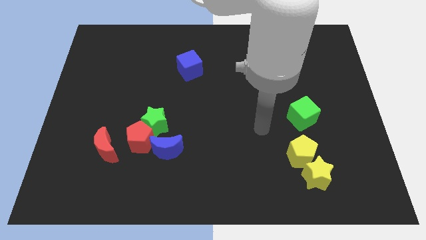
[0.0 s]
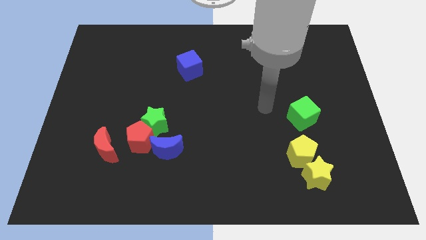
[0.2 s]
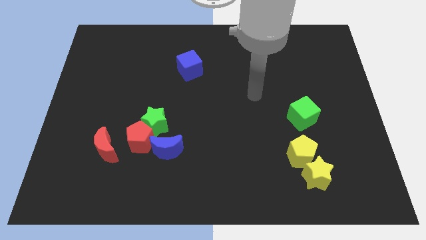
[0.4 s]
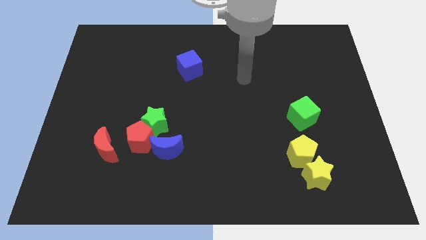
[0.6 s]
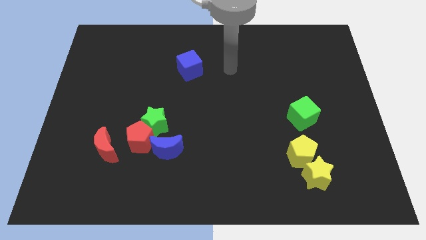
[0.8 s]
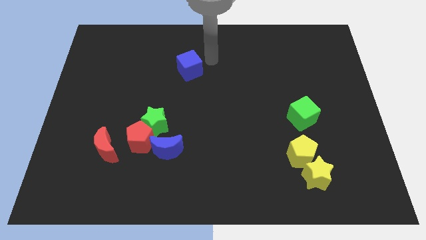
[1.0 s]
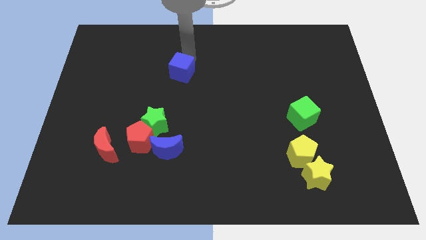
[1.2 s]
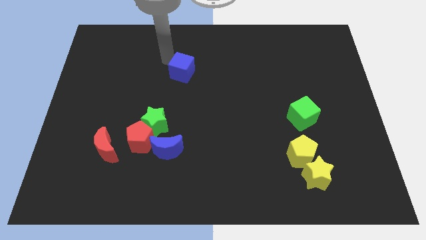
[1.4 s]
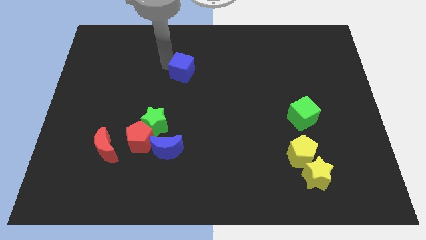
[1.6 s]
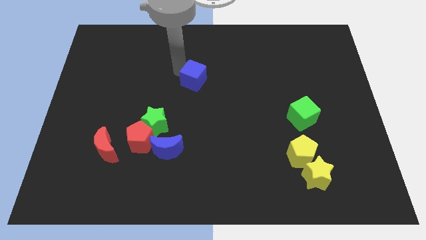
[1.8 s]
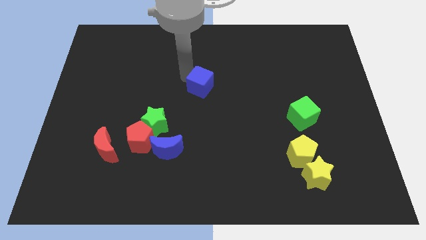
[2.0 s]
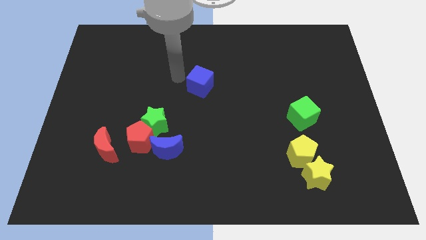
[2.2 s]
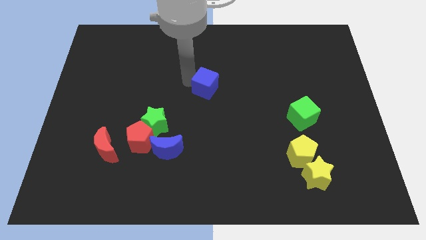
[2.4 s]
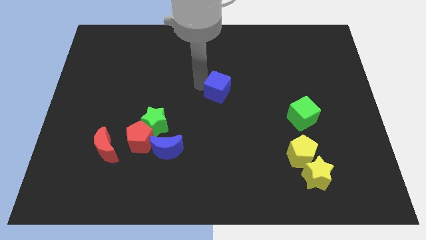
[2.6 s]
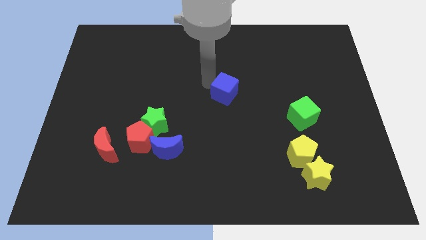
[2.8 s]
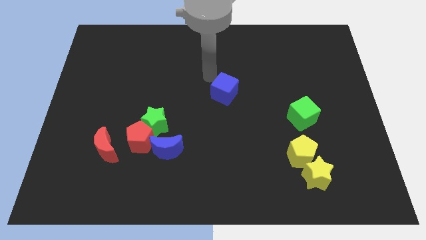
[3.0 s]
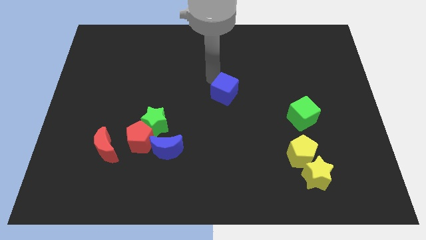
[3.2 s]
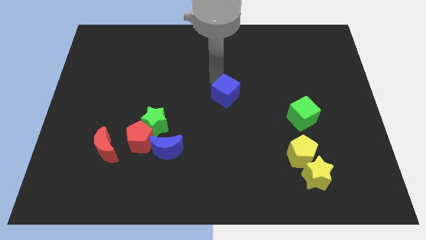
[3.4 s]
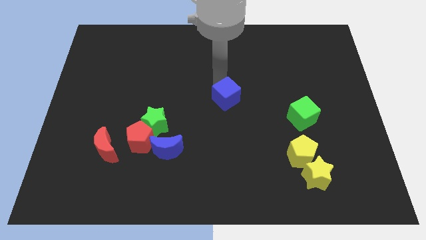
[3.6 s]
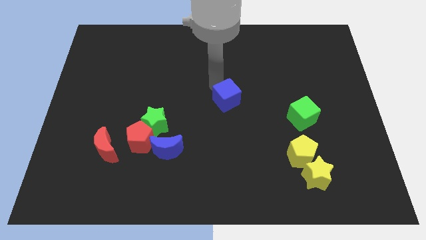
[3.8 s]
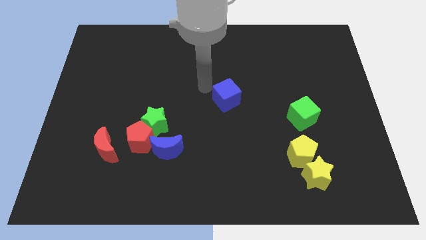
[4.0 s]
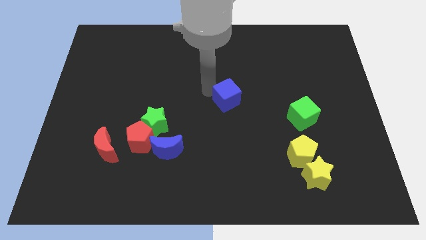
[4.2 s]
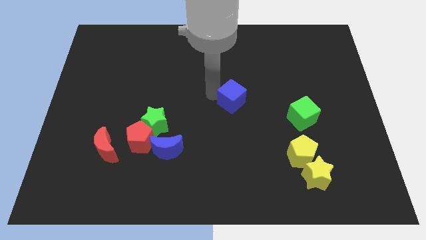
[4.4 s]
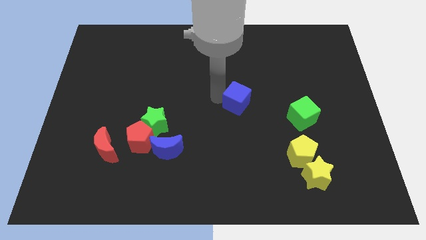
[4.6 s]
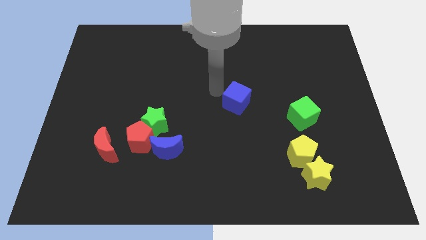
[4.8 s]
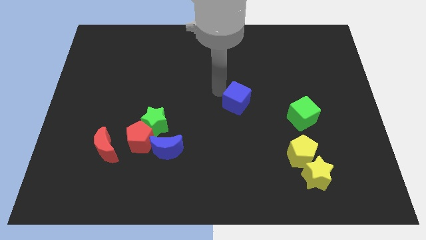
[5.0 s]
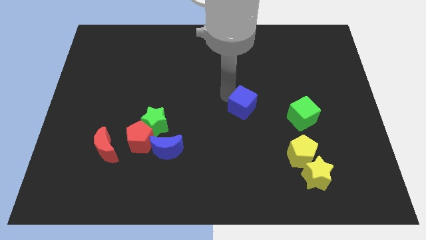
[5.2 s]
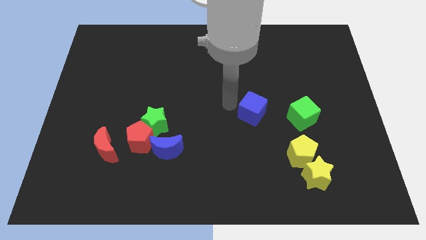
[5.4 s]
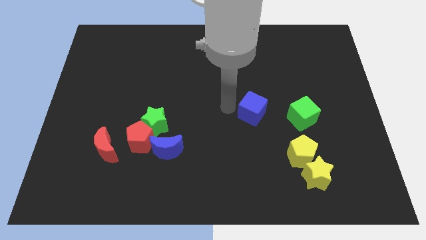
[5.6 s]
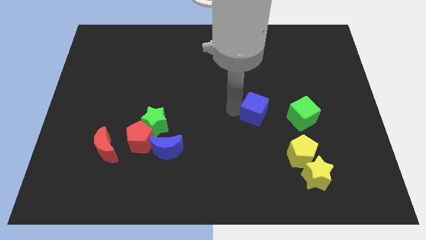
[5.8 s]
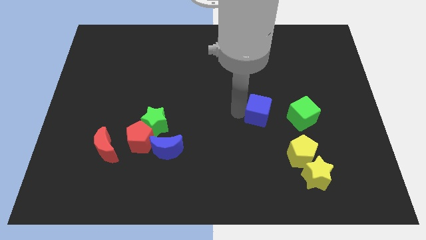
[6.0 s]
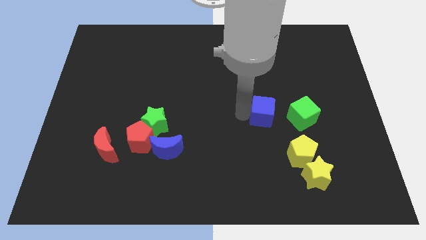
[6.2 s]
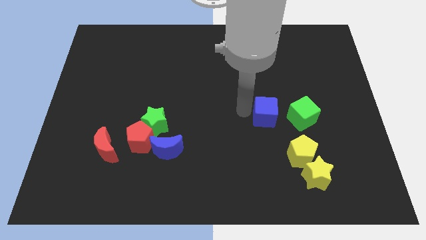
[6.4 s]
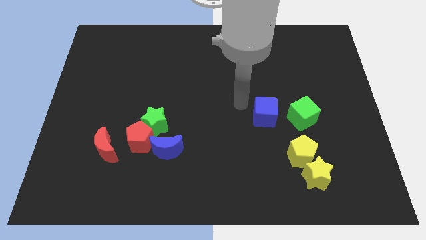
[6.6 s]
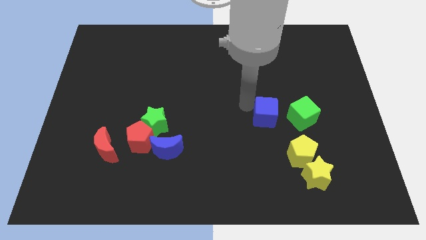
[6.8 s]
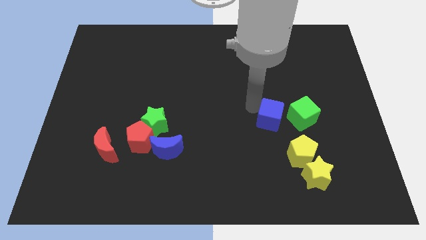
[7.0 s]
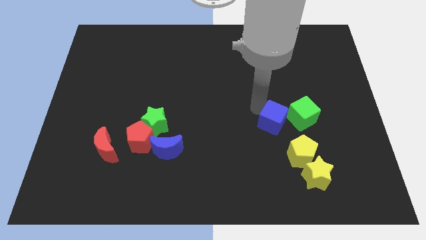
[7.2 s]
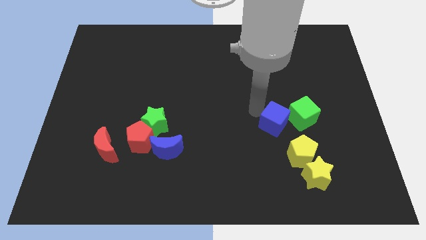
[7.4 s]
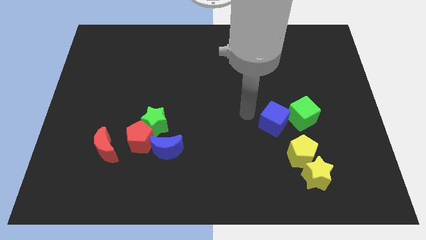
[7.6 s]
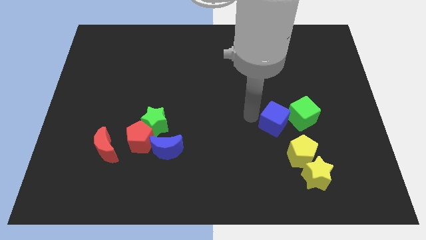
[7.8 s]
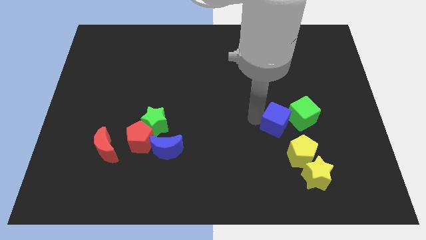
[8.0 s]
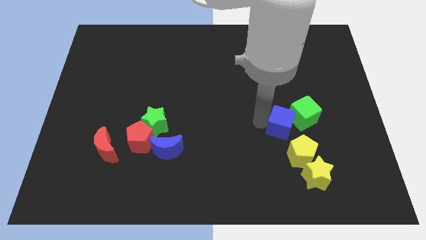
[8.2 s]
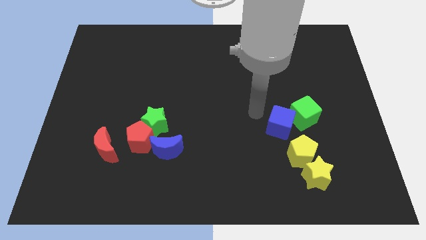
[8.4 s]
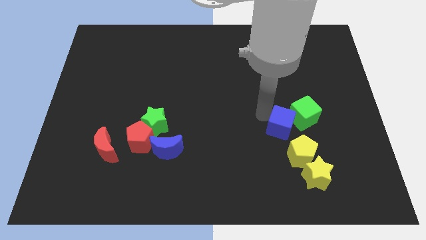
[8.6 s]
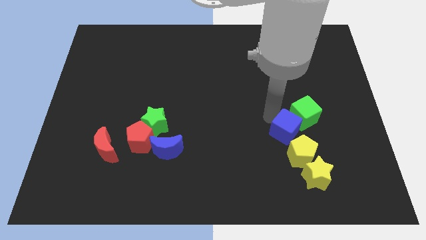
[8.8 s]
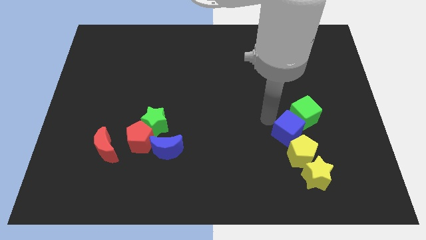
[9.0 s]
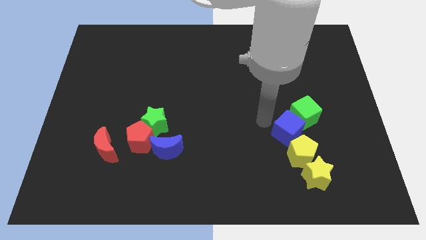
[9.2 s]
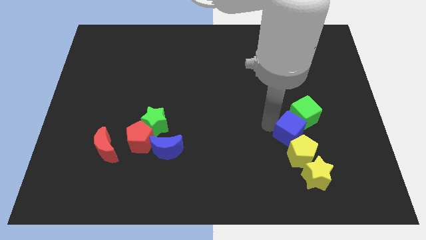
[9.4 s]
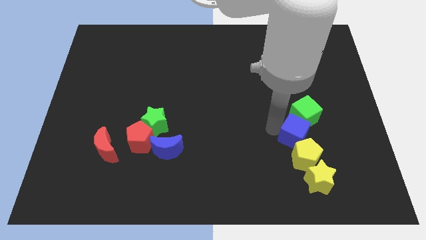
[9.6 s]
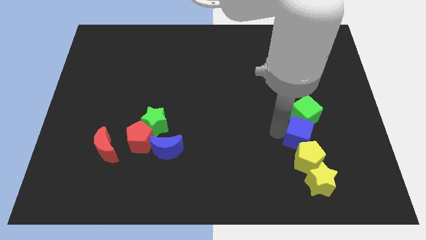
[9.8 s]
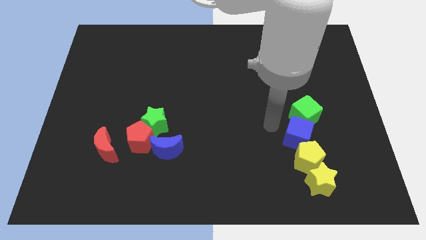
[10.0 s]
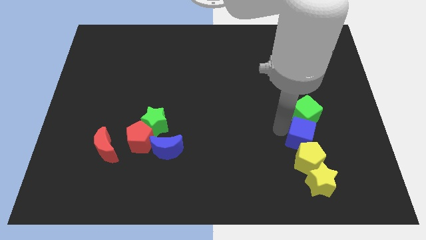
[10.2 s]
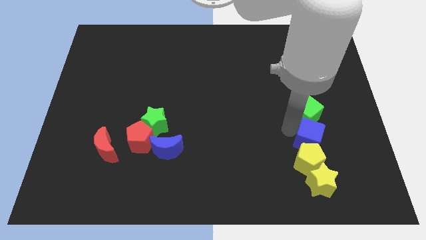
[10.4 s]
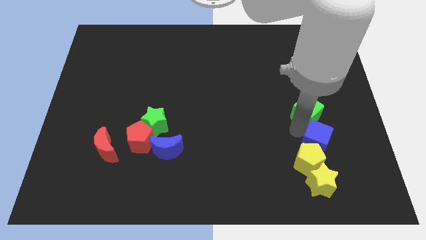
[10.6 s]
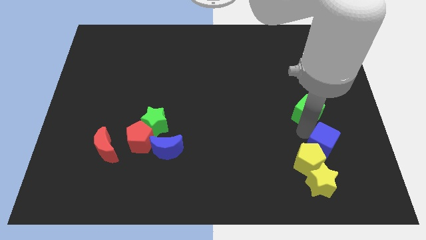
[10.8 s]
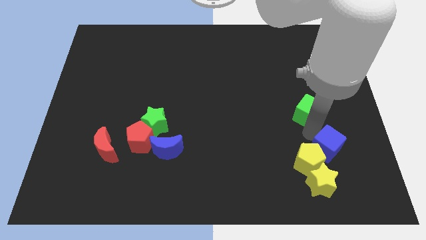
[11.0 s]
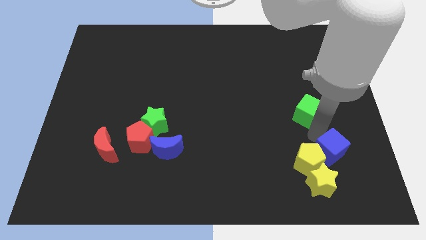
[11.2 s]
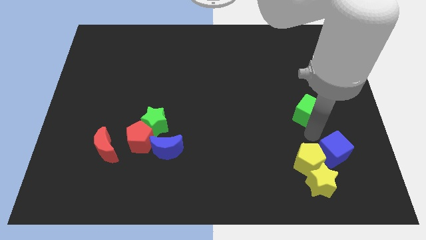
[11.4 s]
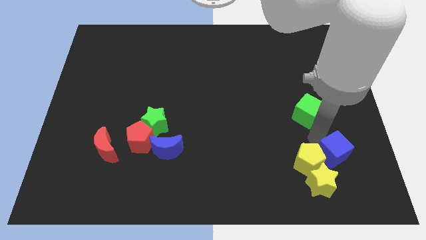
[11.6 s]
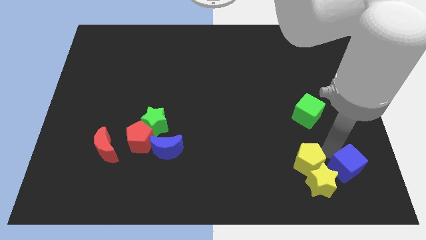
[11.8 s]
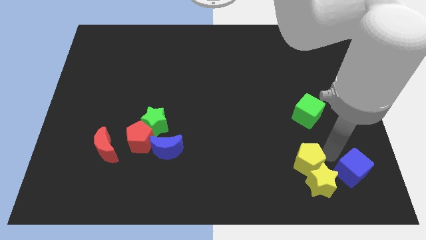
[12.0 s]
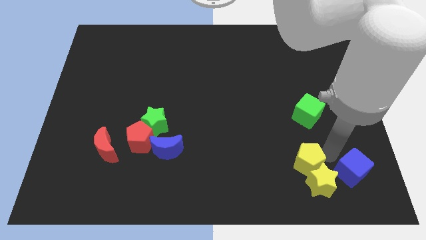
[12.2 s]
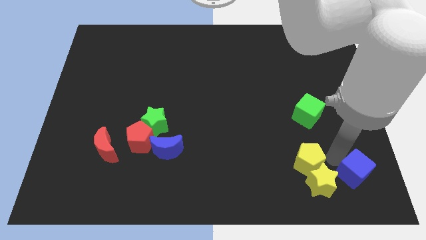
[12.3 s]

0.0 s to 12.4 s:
move the blue cube to the lower right corner

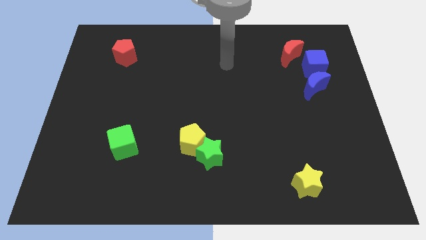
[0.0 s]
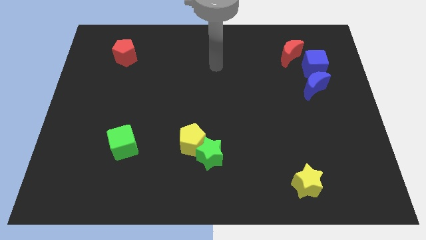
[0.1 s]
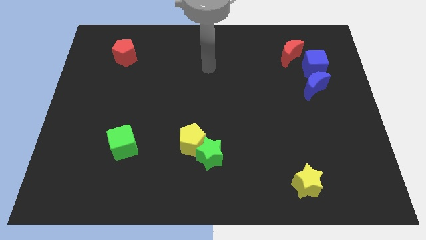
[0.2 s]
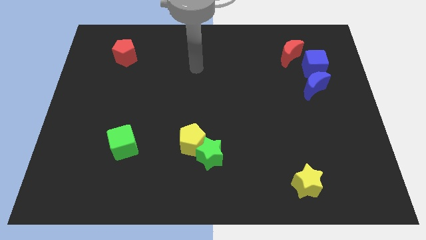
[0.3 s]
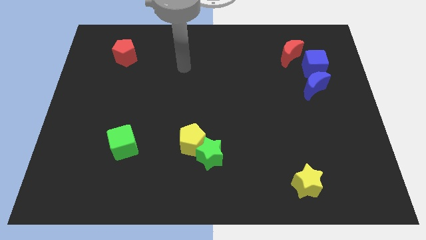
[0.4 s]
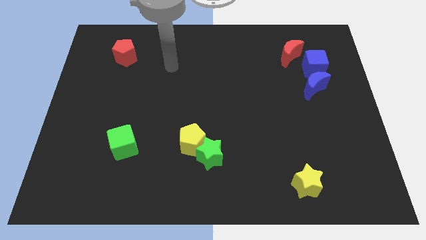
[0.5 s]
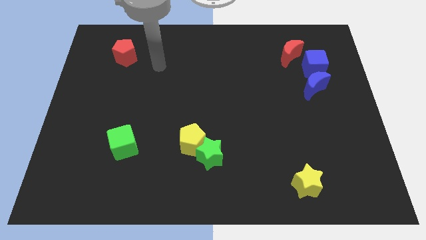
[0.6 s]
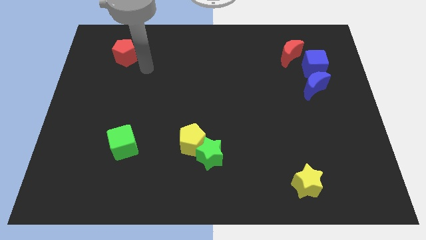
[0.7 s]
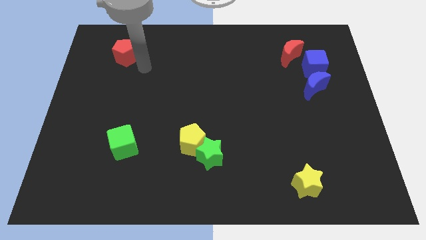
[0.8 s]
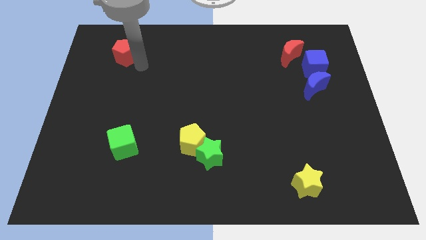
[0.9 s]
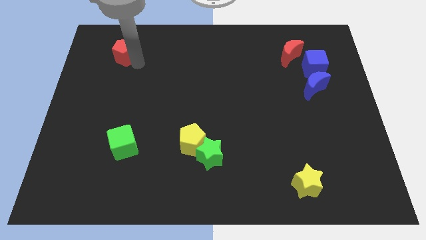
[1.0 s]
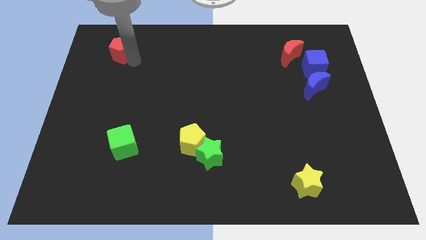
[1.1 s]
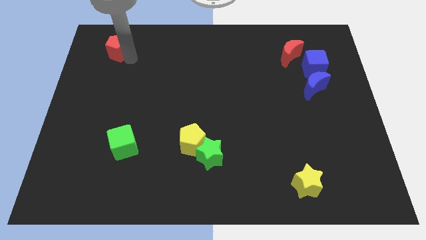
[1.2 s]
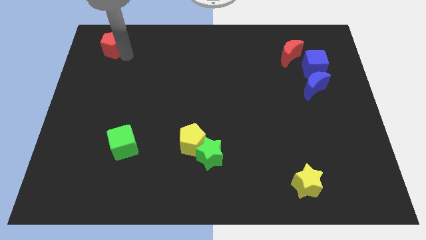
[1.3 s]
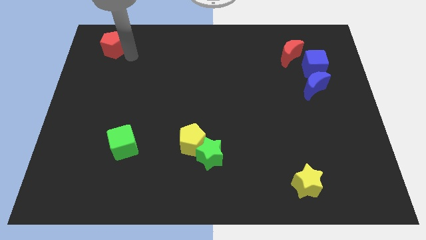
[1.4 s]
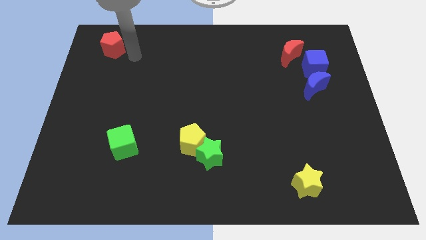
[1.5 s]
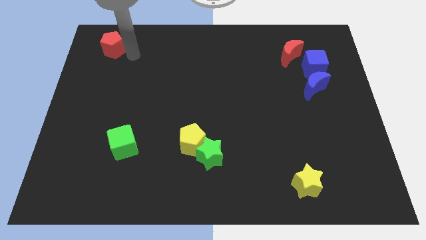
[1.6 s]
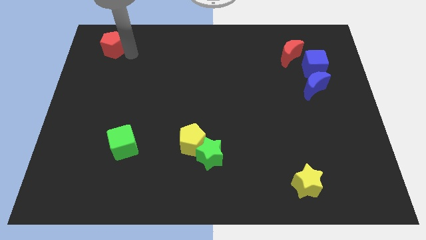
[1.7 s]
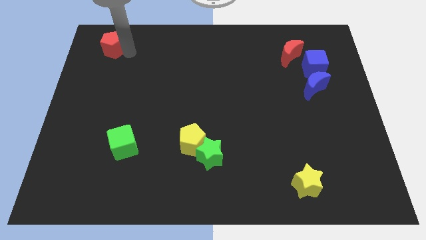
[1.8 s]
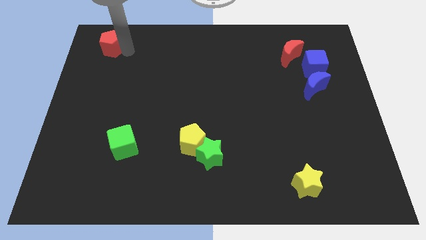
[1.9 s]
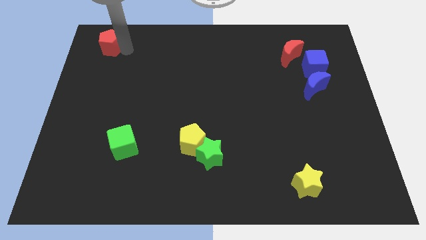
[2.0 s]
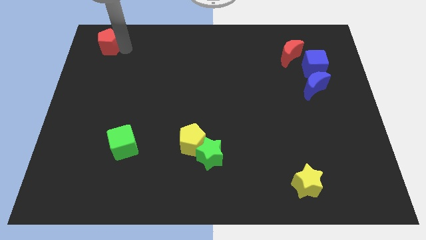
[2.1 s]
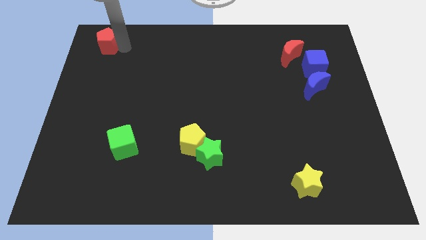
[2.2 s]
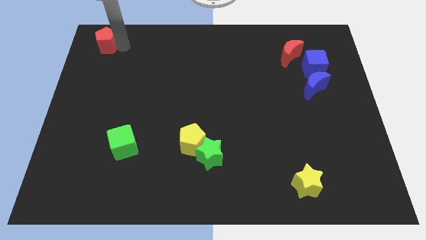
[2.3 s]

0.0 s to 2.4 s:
move the red pentagon to the top left of the board
